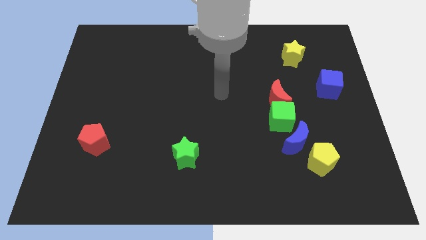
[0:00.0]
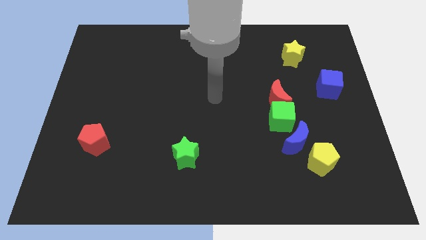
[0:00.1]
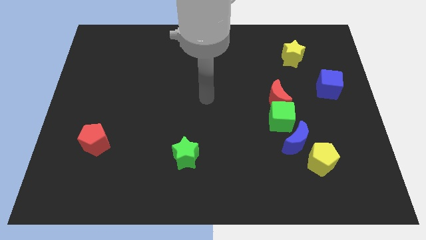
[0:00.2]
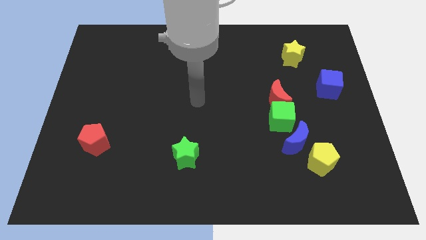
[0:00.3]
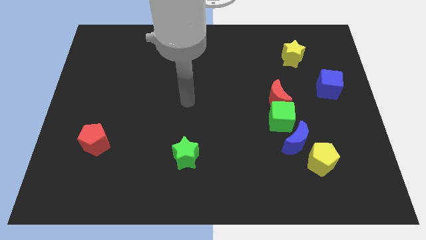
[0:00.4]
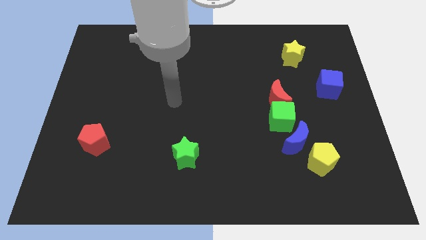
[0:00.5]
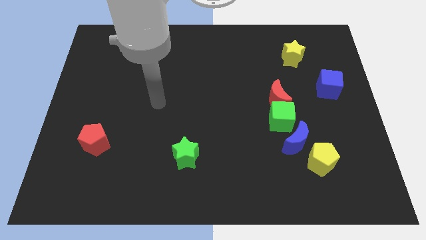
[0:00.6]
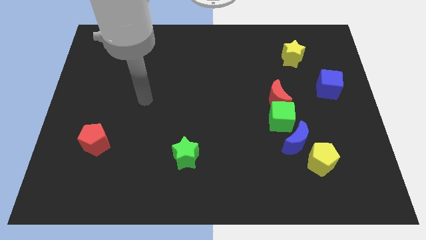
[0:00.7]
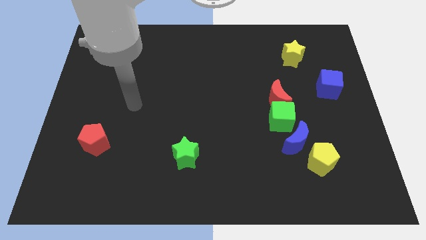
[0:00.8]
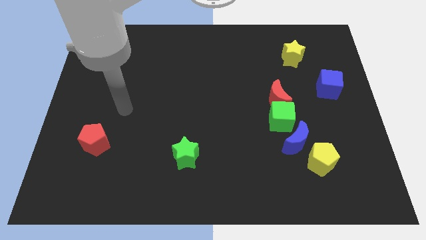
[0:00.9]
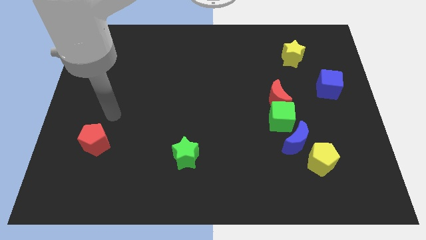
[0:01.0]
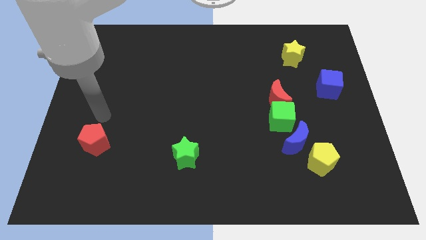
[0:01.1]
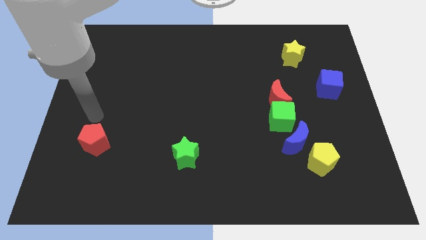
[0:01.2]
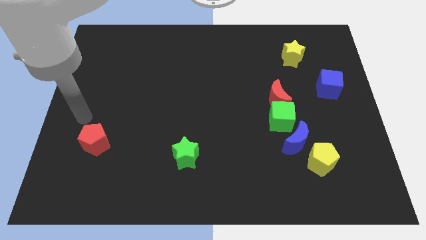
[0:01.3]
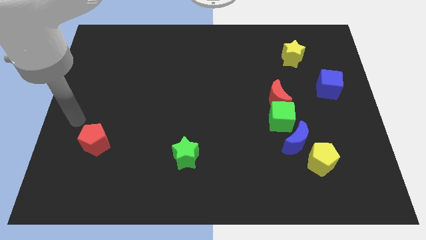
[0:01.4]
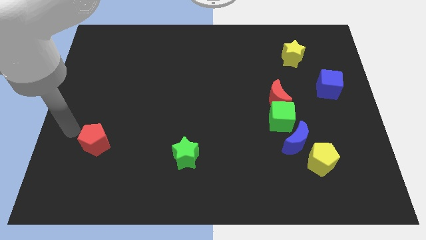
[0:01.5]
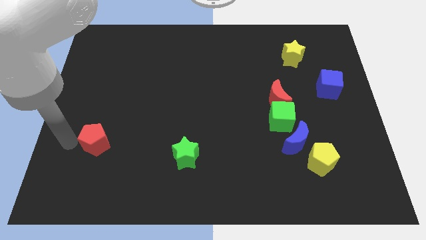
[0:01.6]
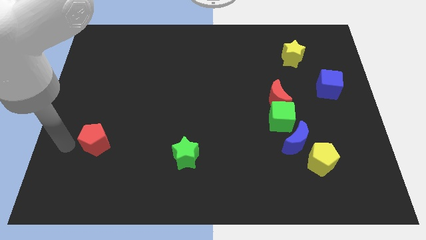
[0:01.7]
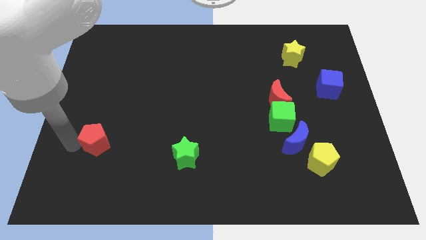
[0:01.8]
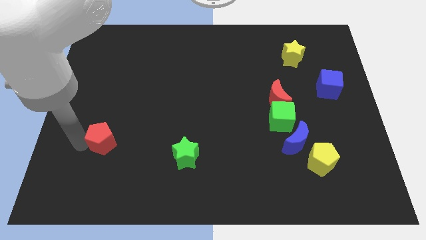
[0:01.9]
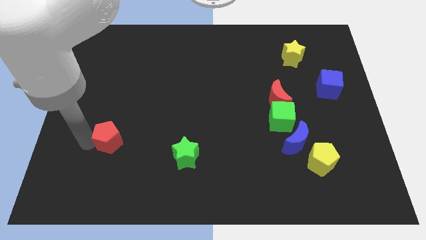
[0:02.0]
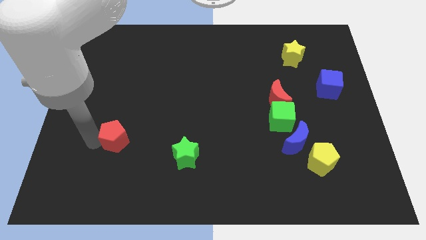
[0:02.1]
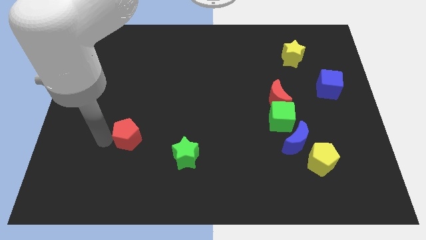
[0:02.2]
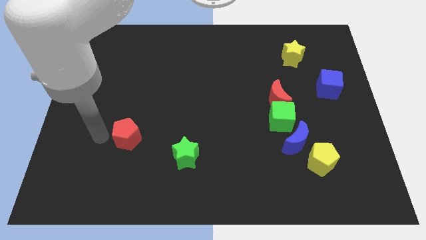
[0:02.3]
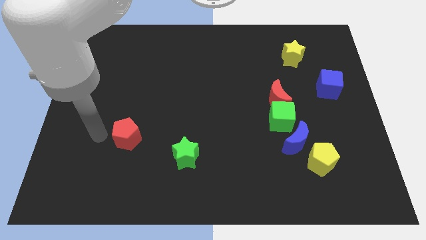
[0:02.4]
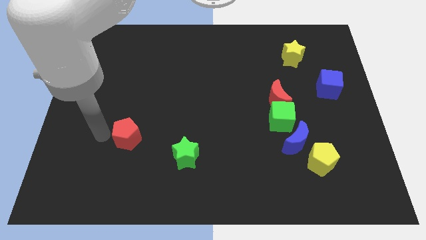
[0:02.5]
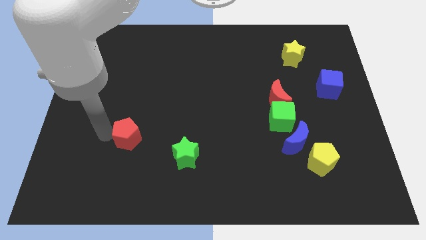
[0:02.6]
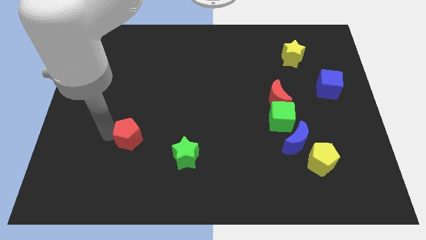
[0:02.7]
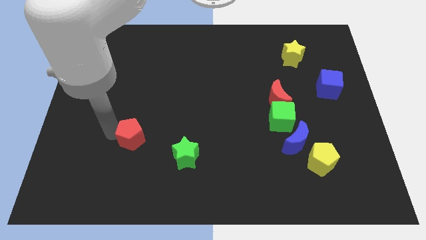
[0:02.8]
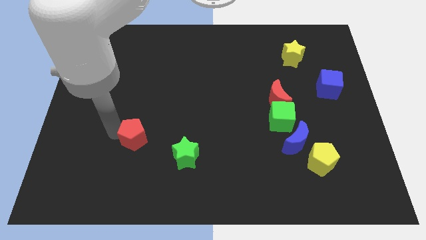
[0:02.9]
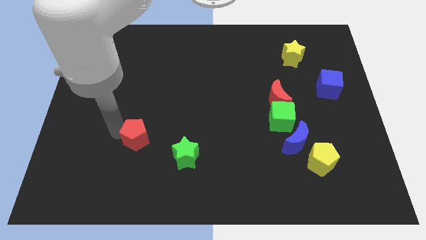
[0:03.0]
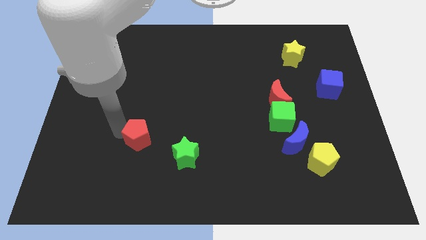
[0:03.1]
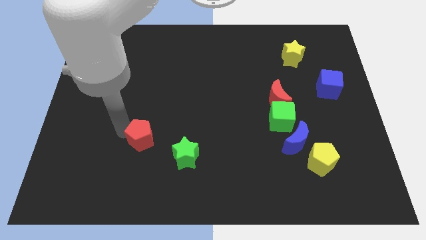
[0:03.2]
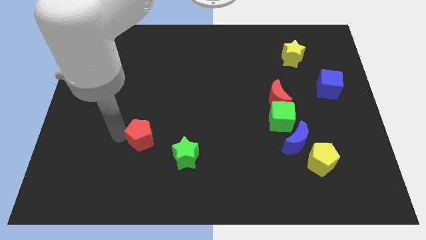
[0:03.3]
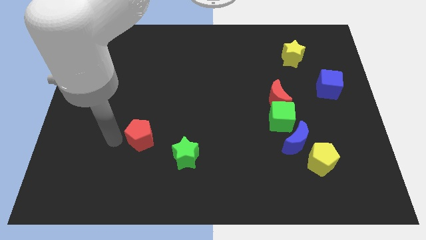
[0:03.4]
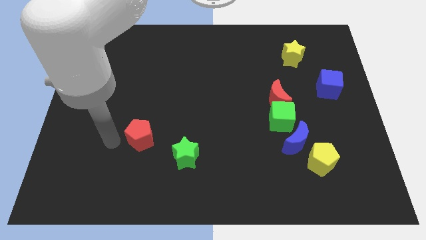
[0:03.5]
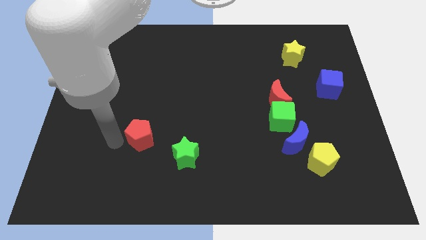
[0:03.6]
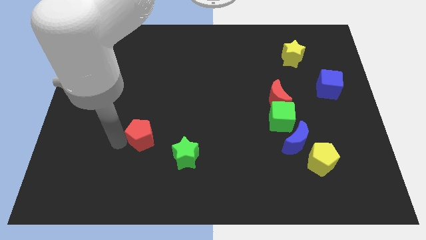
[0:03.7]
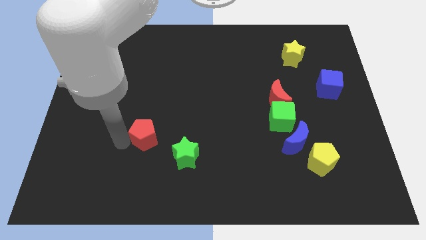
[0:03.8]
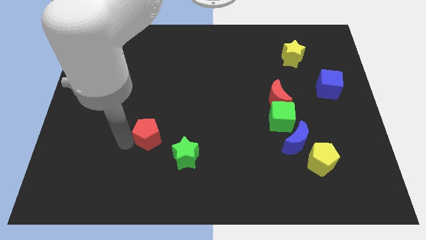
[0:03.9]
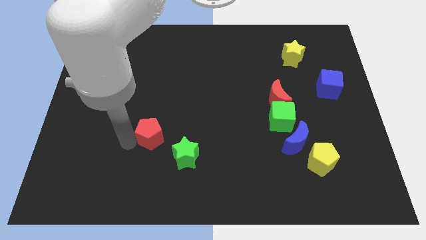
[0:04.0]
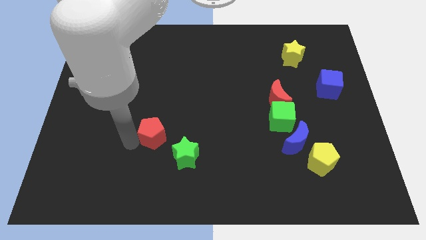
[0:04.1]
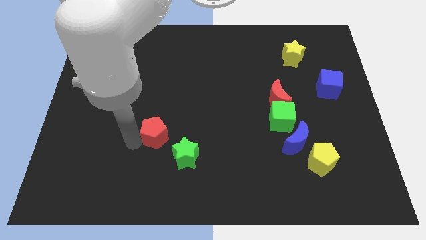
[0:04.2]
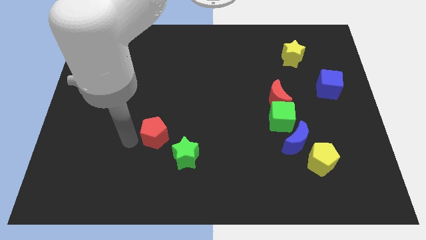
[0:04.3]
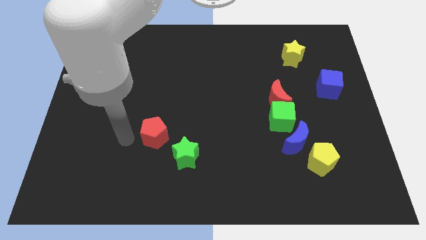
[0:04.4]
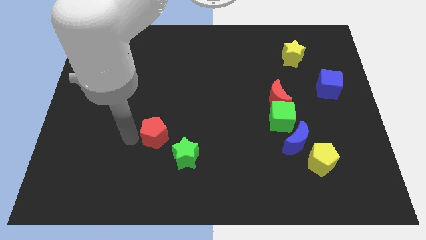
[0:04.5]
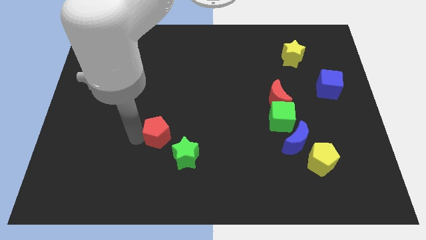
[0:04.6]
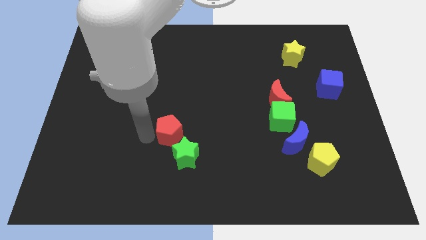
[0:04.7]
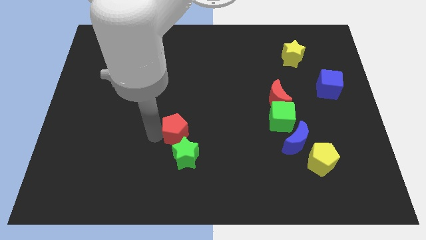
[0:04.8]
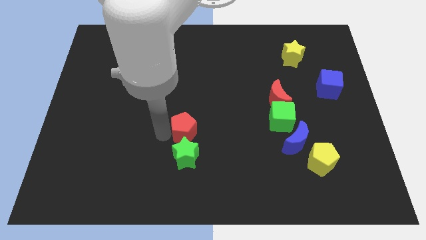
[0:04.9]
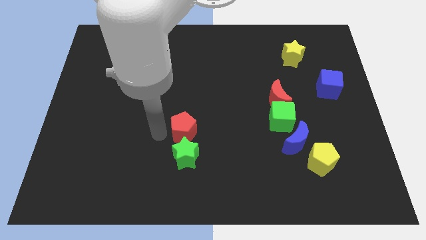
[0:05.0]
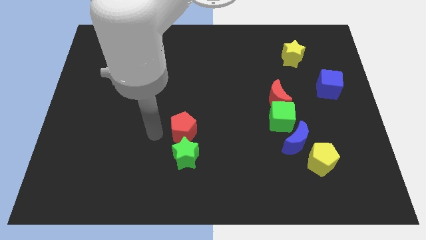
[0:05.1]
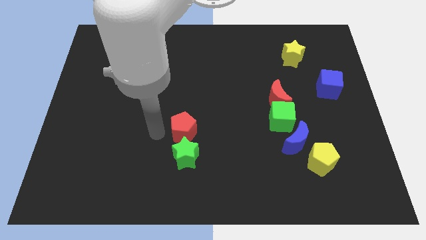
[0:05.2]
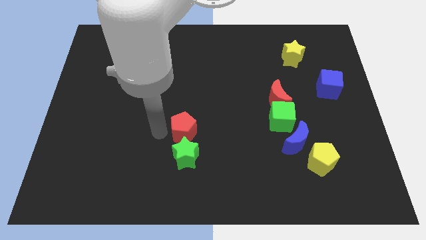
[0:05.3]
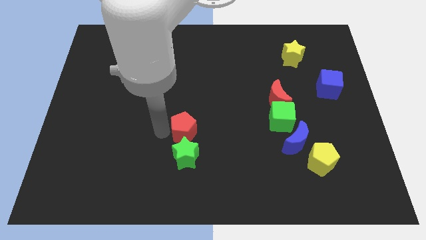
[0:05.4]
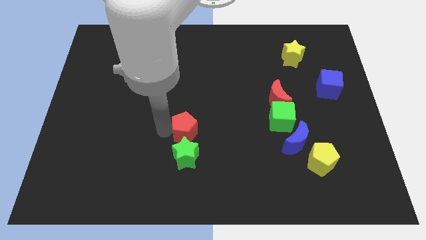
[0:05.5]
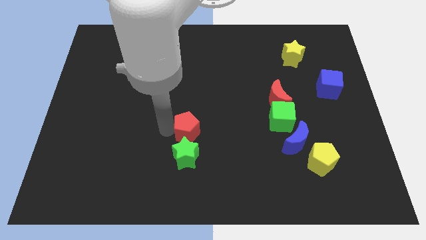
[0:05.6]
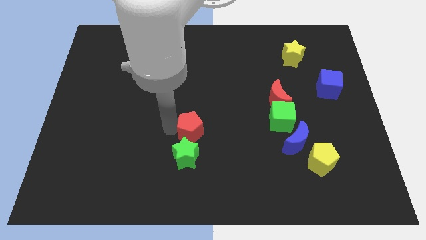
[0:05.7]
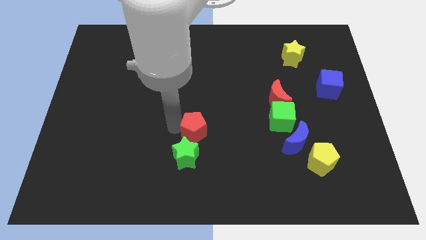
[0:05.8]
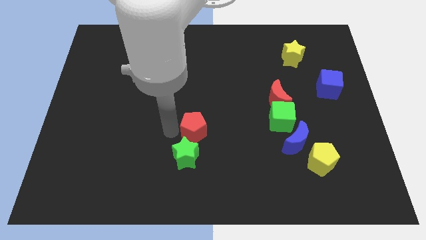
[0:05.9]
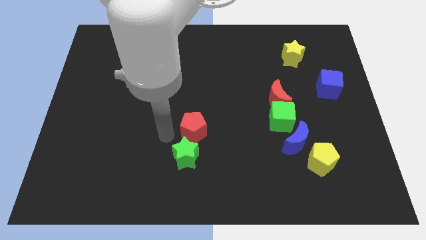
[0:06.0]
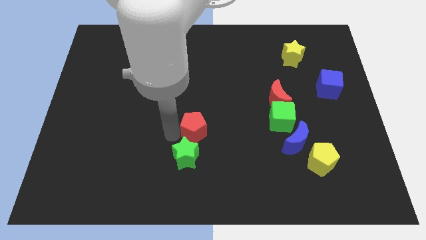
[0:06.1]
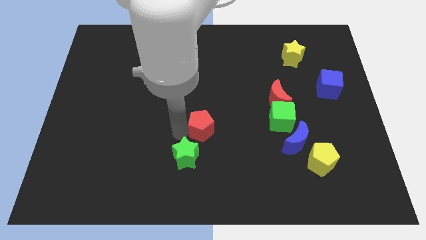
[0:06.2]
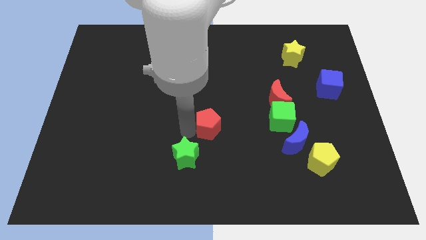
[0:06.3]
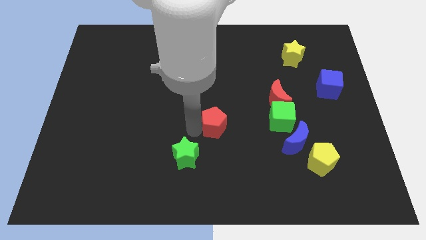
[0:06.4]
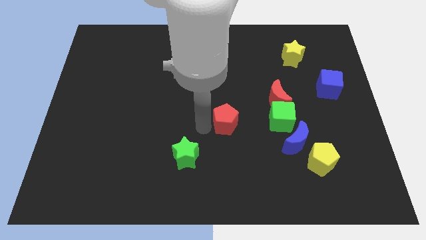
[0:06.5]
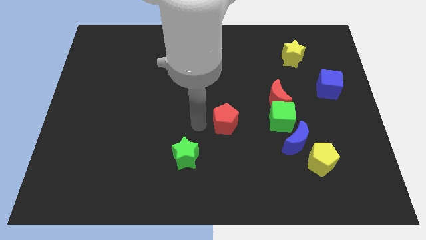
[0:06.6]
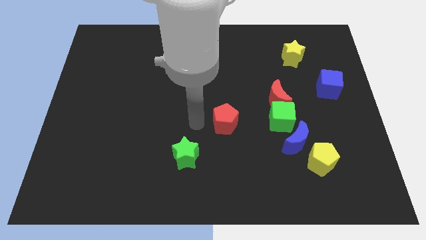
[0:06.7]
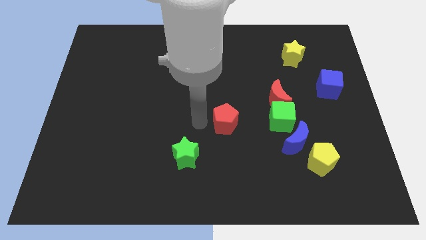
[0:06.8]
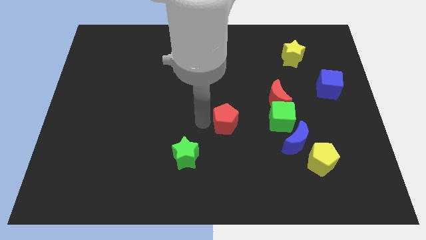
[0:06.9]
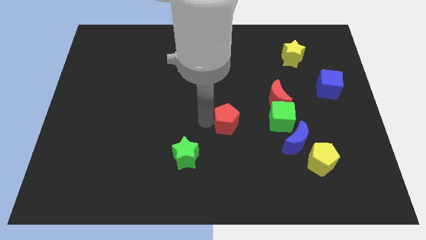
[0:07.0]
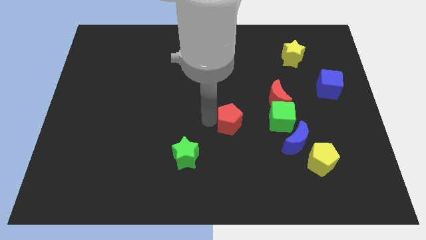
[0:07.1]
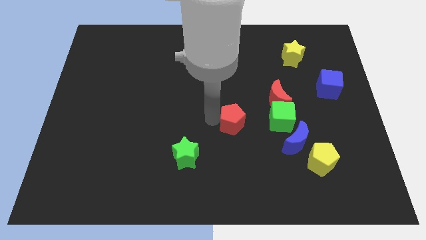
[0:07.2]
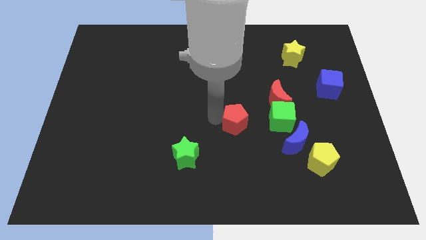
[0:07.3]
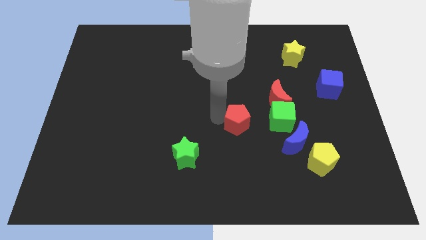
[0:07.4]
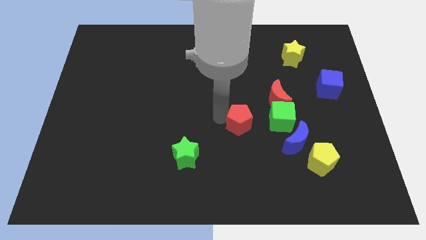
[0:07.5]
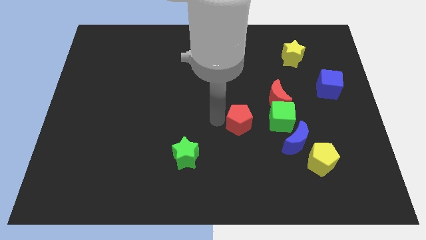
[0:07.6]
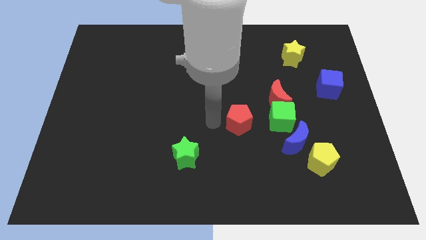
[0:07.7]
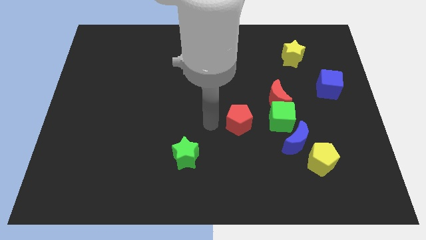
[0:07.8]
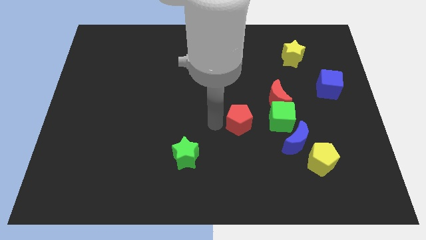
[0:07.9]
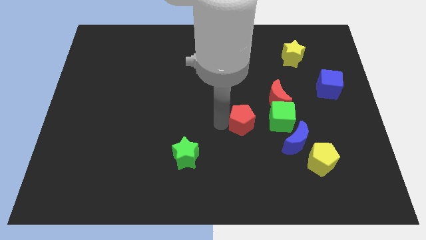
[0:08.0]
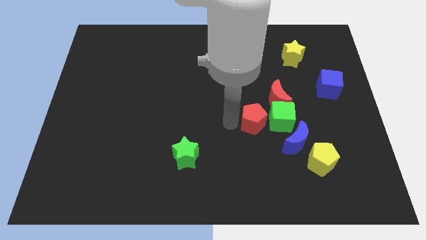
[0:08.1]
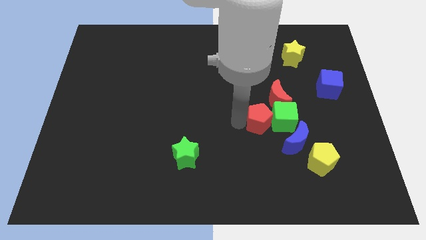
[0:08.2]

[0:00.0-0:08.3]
move the red pentagon close to the green cube

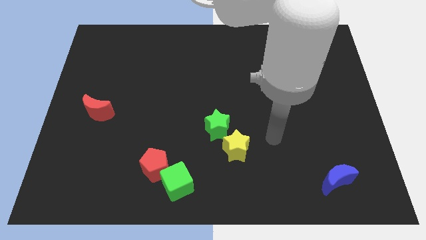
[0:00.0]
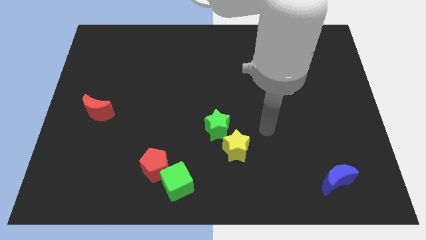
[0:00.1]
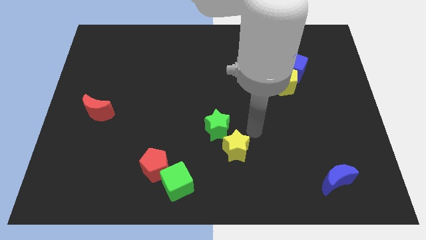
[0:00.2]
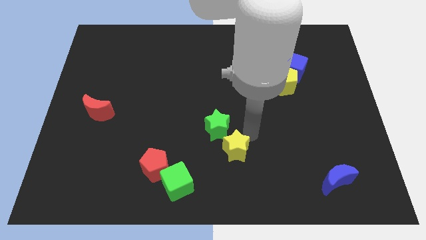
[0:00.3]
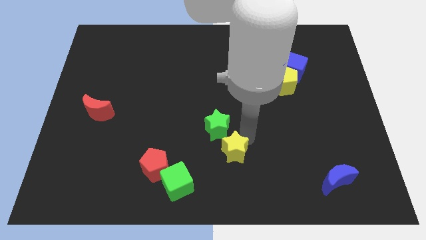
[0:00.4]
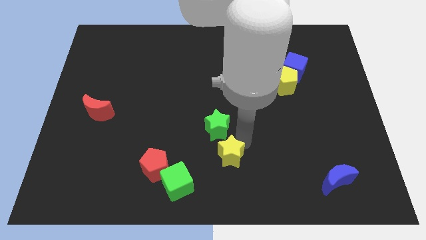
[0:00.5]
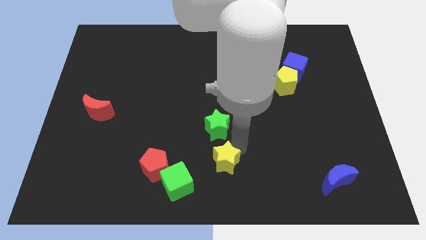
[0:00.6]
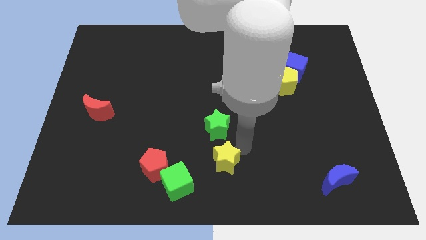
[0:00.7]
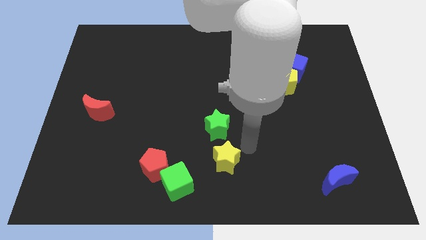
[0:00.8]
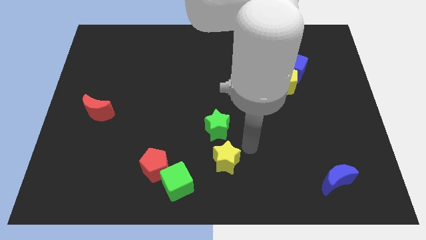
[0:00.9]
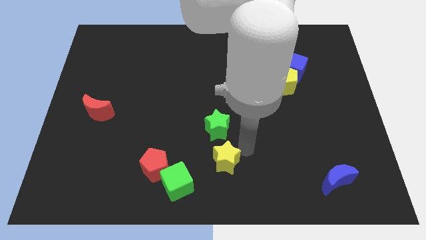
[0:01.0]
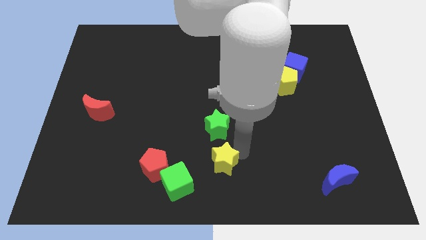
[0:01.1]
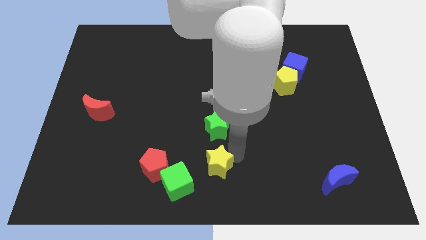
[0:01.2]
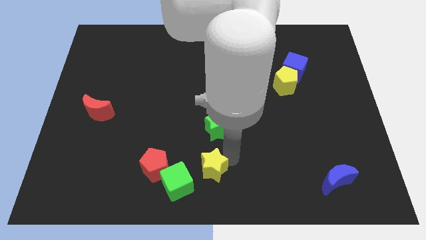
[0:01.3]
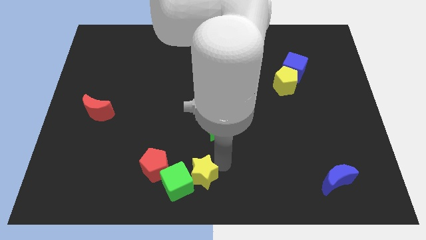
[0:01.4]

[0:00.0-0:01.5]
slide the yellow star close to the green cube
